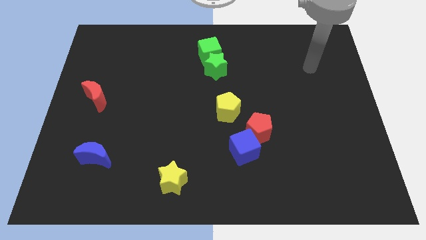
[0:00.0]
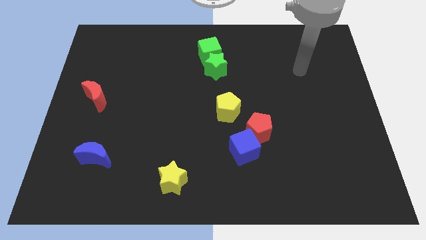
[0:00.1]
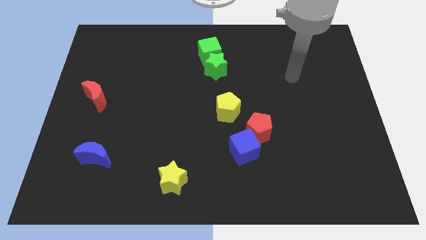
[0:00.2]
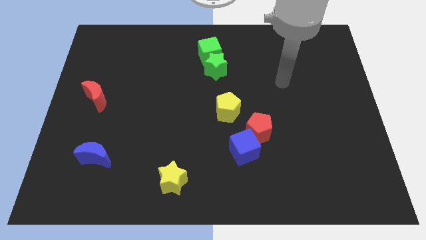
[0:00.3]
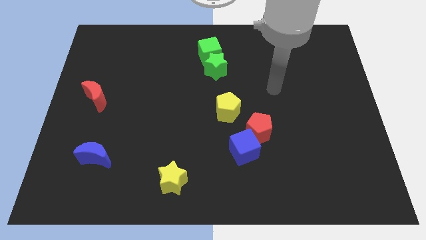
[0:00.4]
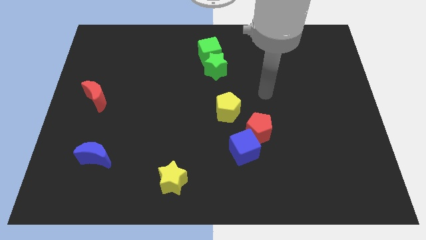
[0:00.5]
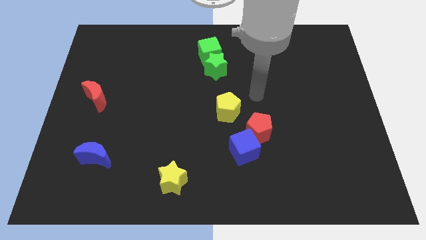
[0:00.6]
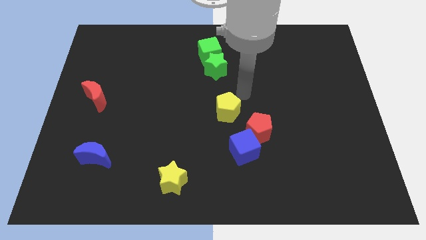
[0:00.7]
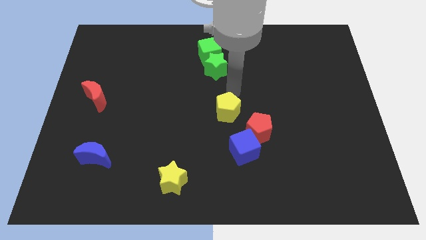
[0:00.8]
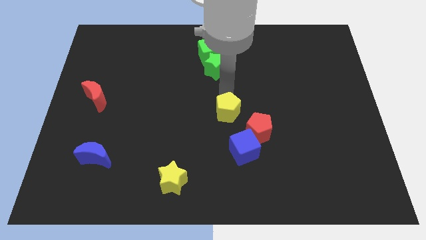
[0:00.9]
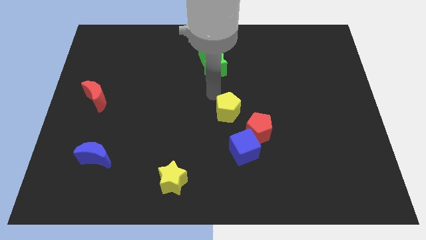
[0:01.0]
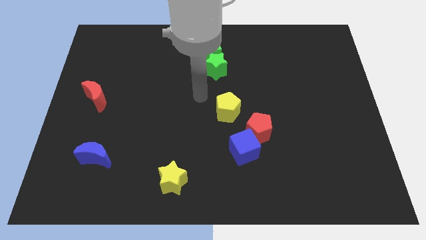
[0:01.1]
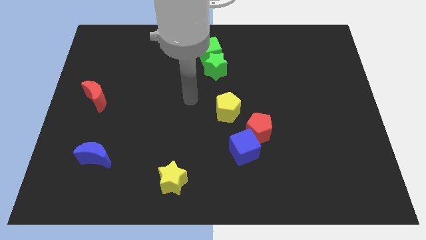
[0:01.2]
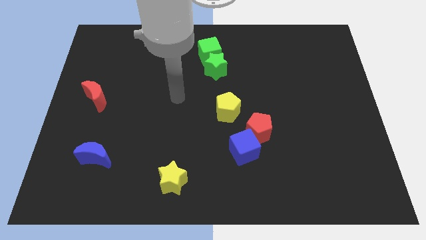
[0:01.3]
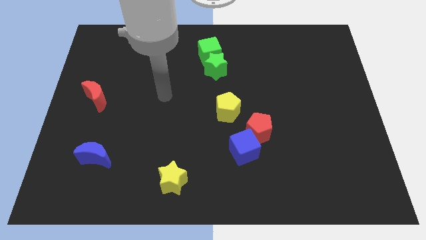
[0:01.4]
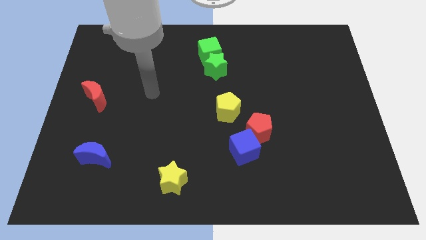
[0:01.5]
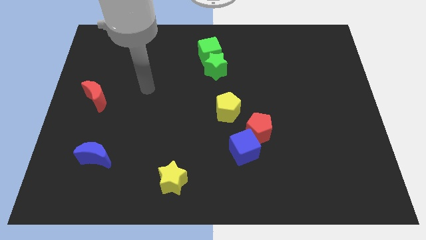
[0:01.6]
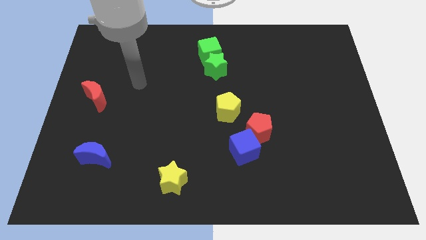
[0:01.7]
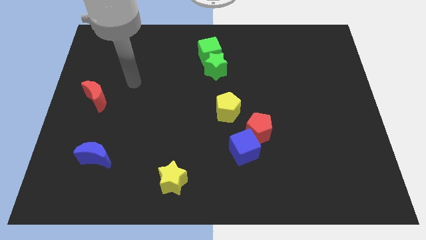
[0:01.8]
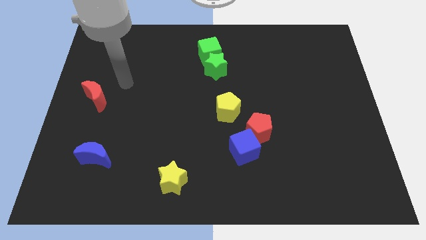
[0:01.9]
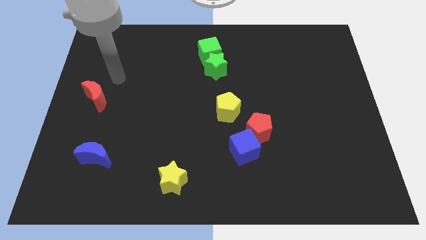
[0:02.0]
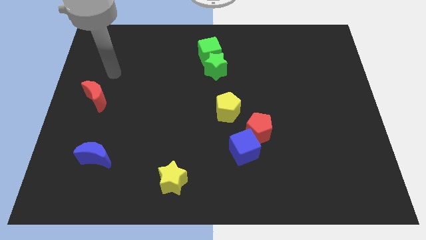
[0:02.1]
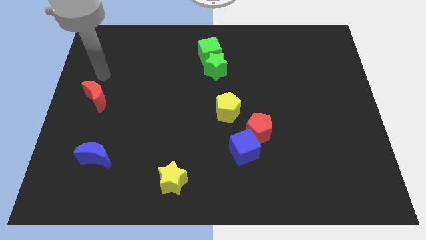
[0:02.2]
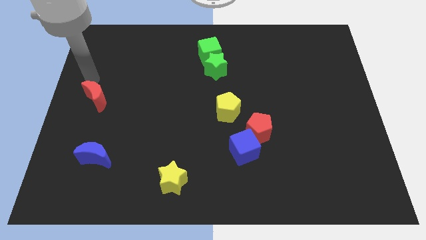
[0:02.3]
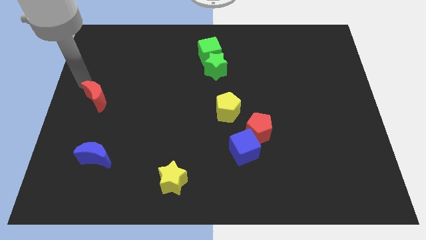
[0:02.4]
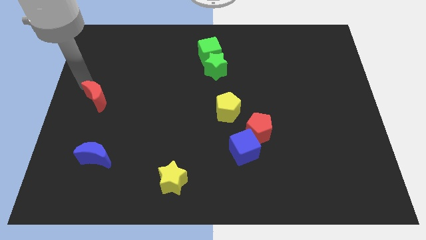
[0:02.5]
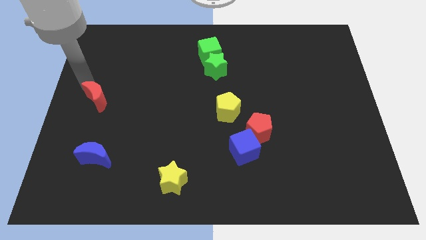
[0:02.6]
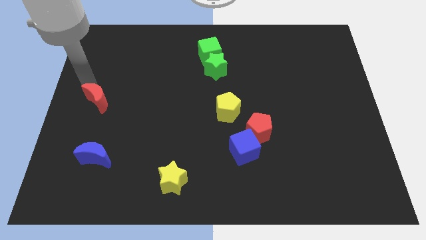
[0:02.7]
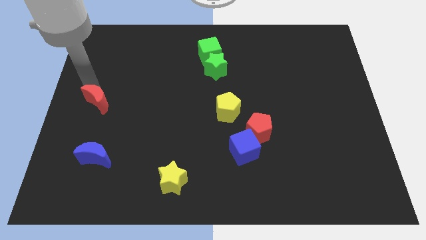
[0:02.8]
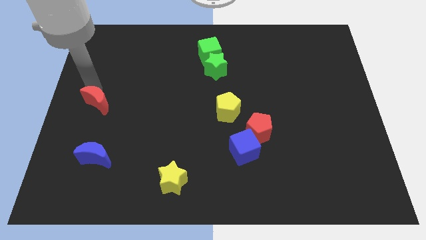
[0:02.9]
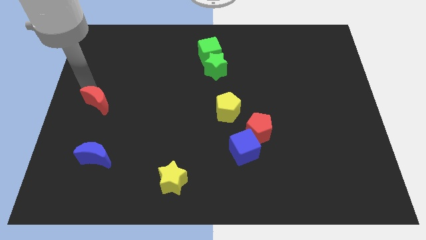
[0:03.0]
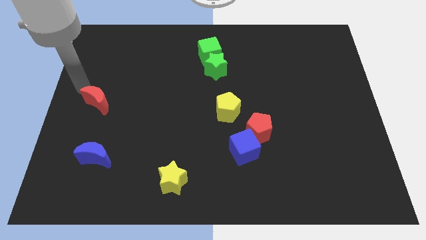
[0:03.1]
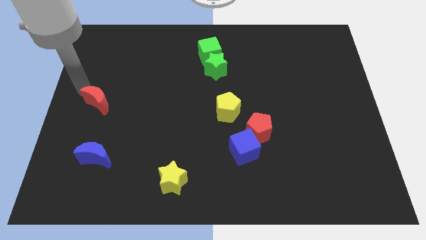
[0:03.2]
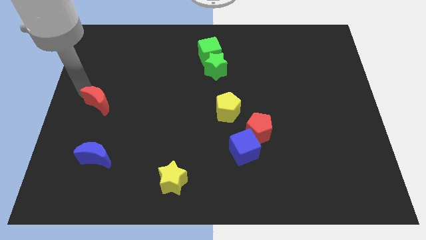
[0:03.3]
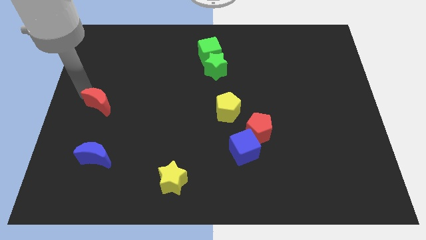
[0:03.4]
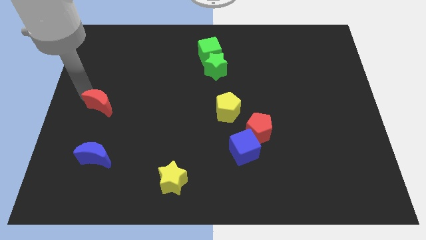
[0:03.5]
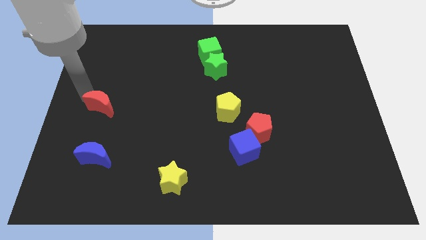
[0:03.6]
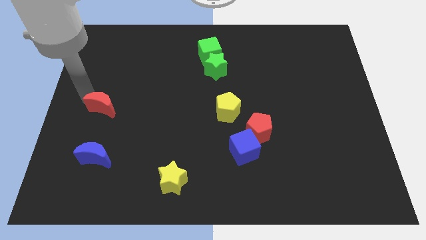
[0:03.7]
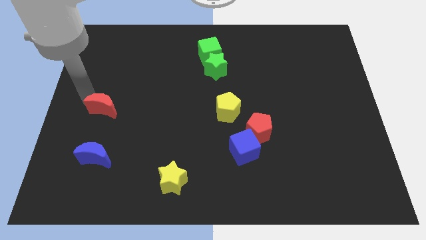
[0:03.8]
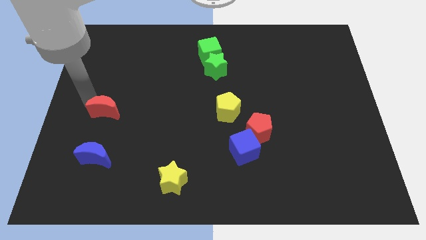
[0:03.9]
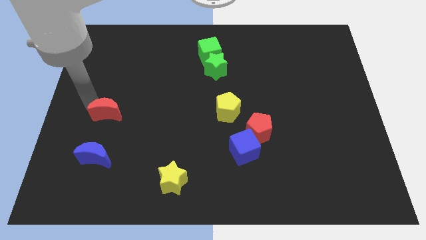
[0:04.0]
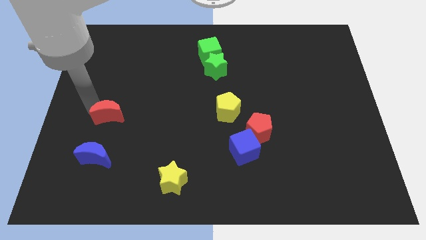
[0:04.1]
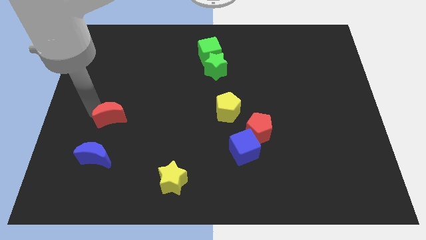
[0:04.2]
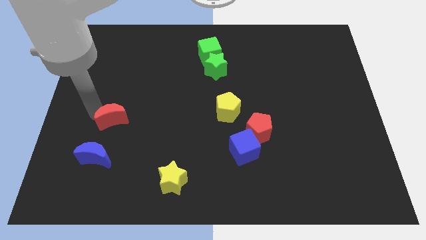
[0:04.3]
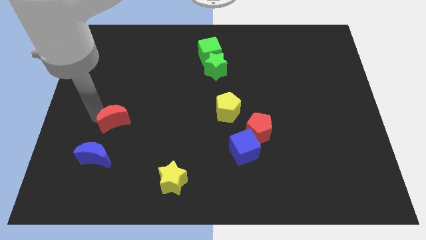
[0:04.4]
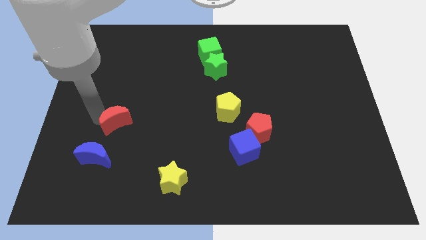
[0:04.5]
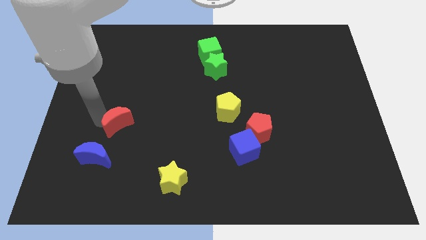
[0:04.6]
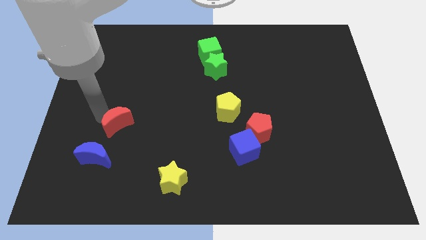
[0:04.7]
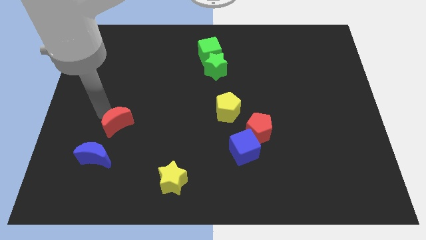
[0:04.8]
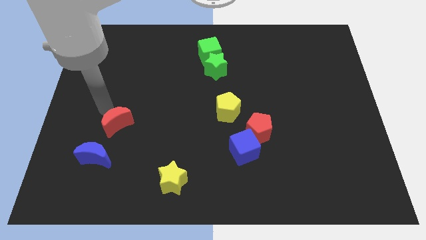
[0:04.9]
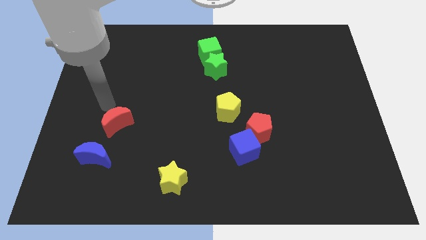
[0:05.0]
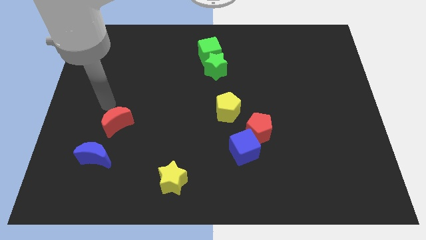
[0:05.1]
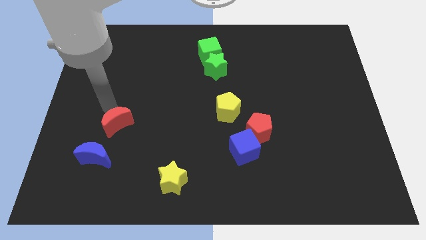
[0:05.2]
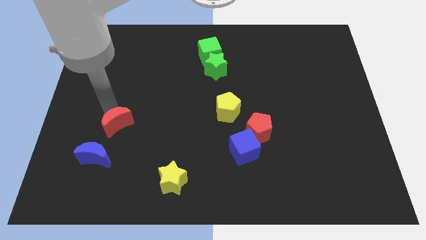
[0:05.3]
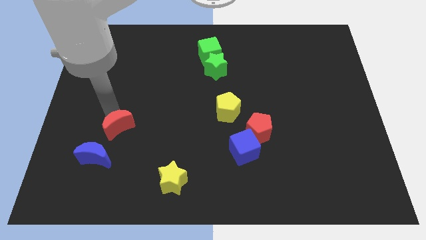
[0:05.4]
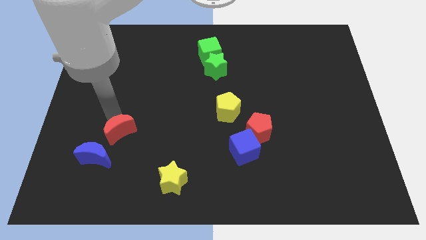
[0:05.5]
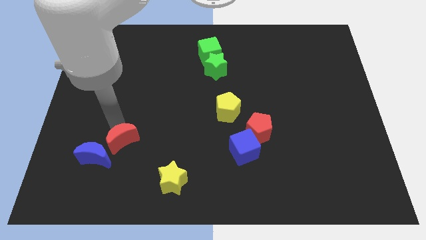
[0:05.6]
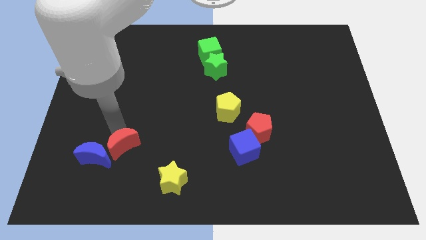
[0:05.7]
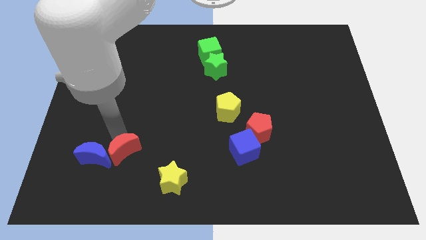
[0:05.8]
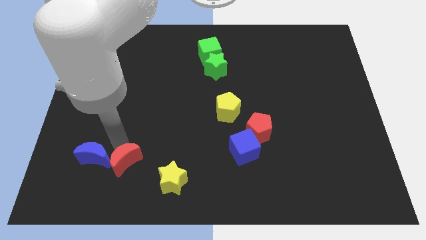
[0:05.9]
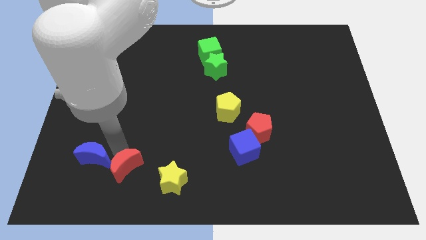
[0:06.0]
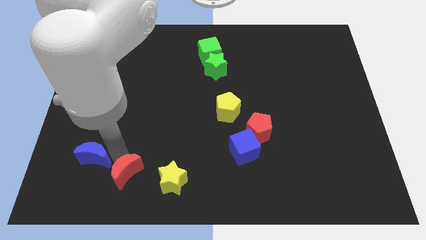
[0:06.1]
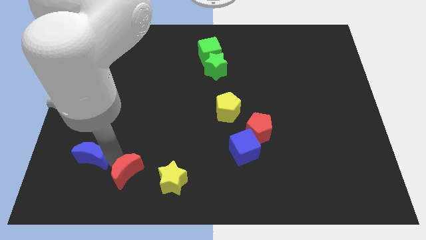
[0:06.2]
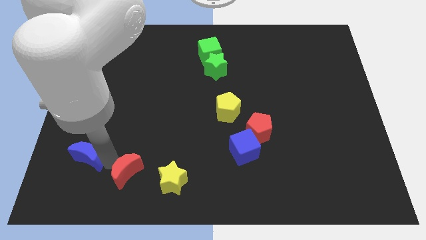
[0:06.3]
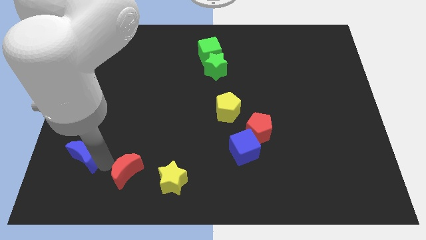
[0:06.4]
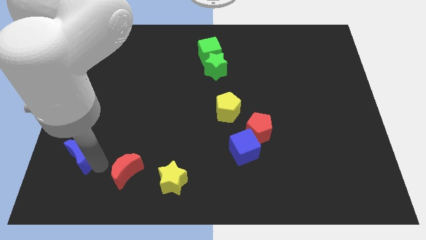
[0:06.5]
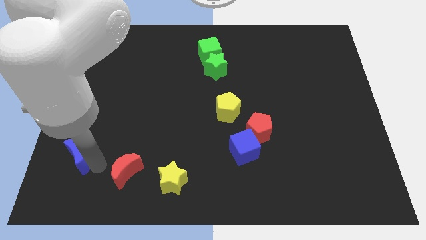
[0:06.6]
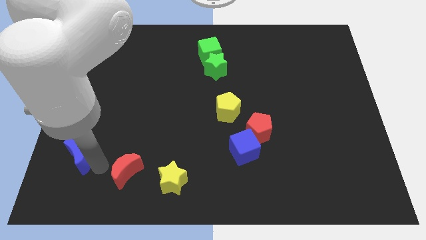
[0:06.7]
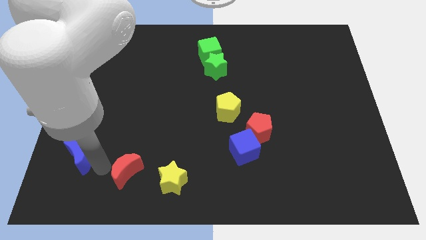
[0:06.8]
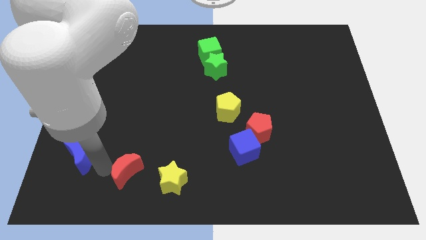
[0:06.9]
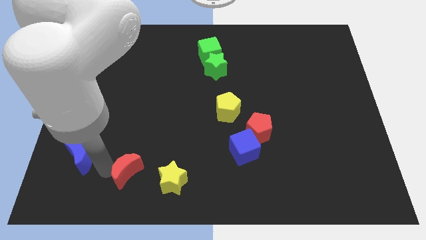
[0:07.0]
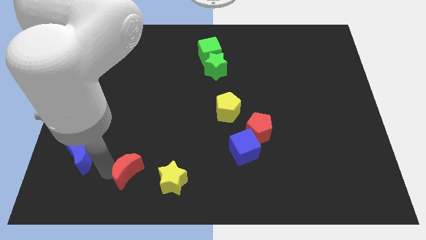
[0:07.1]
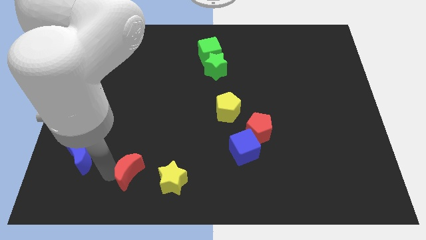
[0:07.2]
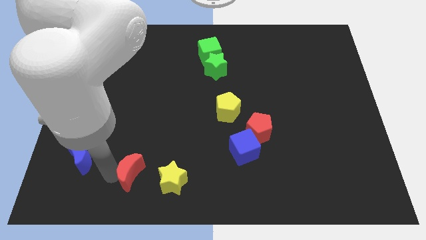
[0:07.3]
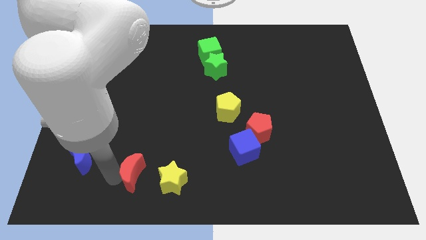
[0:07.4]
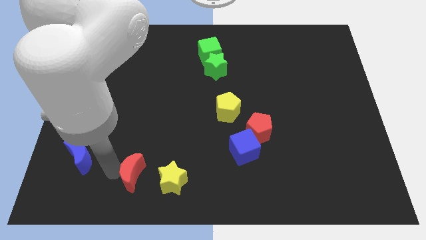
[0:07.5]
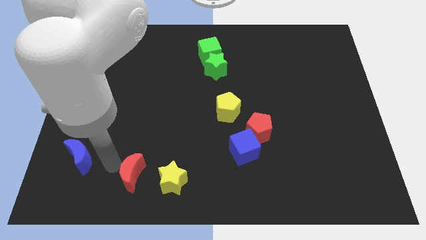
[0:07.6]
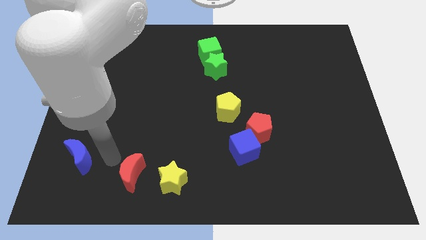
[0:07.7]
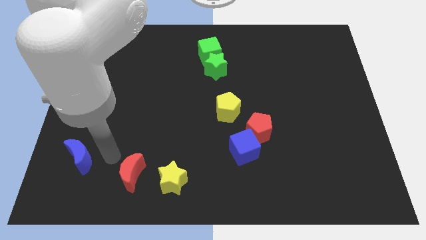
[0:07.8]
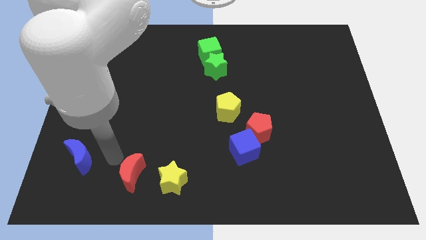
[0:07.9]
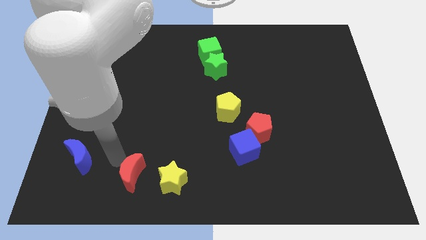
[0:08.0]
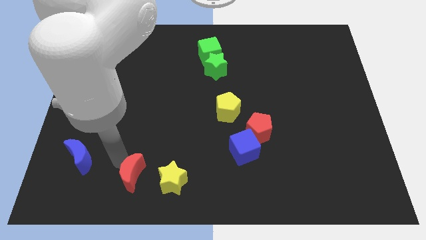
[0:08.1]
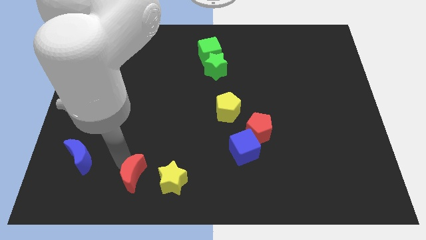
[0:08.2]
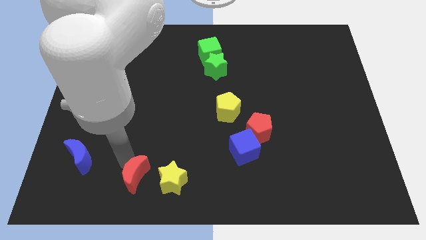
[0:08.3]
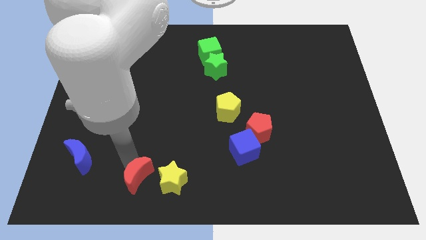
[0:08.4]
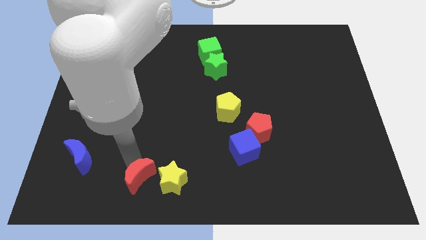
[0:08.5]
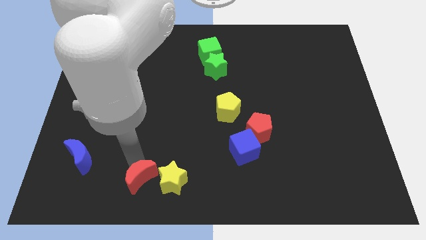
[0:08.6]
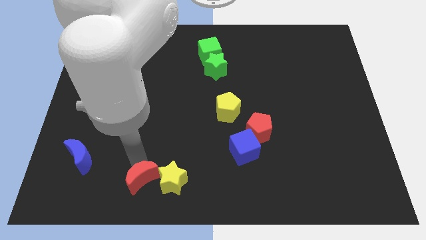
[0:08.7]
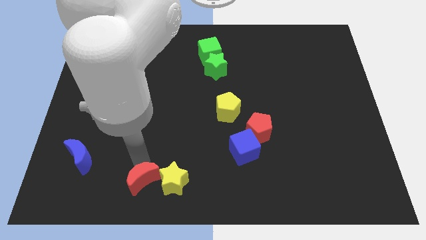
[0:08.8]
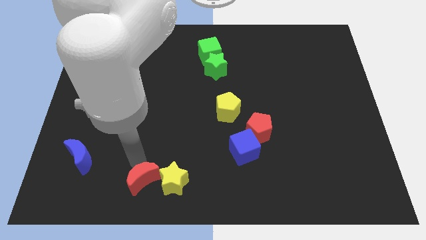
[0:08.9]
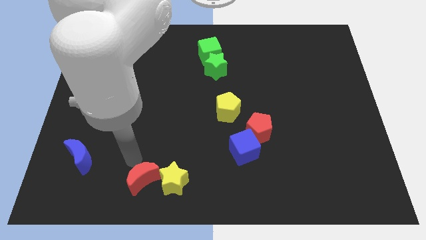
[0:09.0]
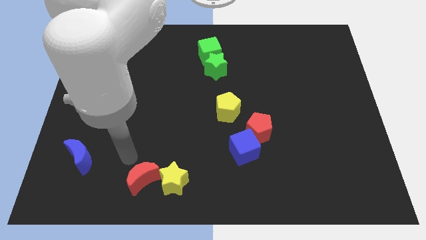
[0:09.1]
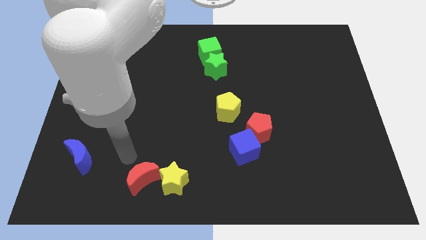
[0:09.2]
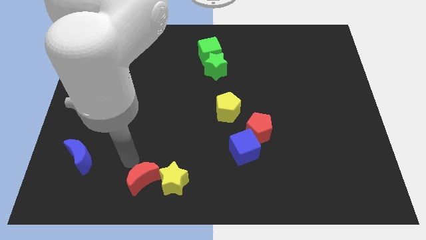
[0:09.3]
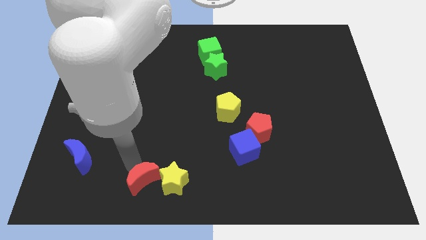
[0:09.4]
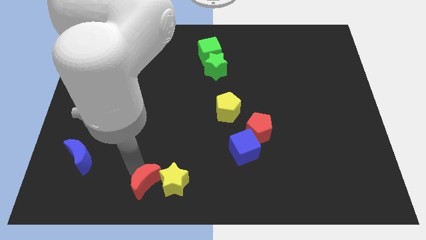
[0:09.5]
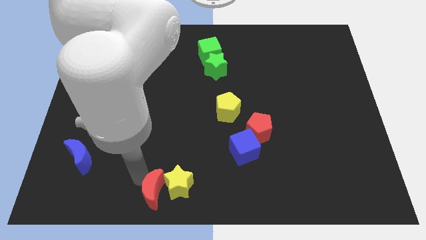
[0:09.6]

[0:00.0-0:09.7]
put the red moon to the bottom side
